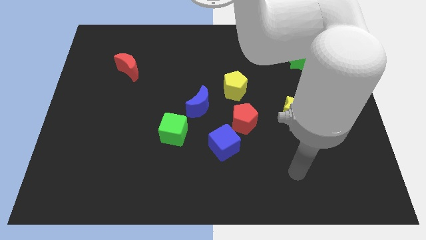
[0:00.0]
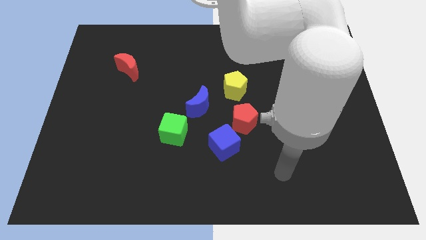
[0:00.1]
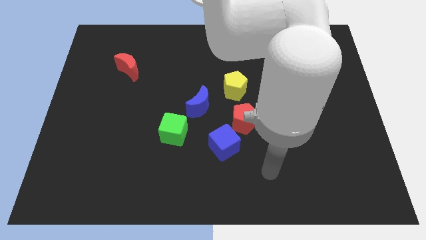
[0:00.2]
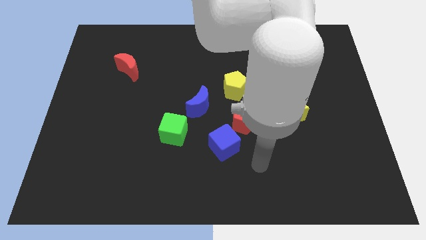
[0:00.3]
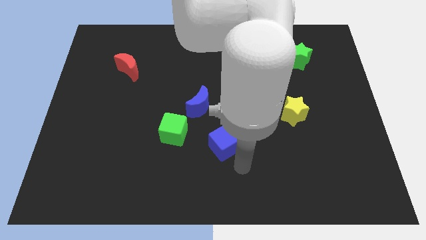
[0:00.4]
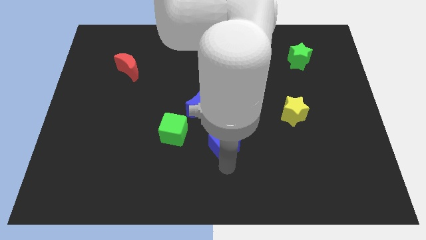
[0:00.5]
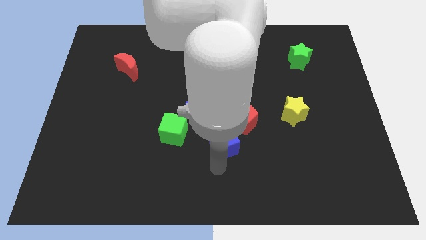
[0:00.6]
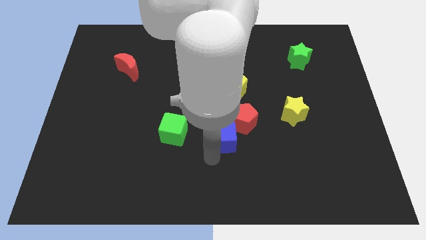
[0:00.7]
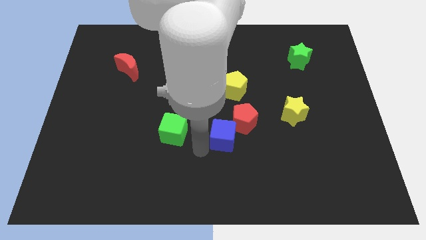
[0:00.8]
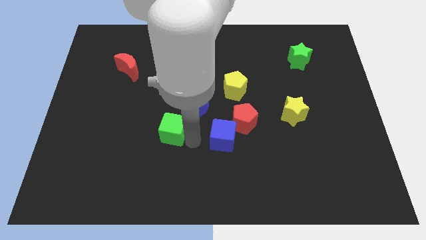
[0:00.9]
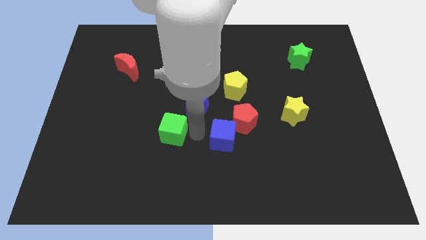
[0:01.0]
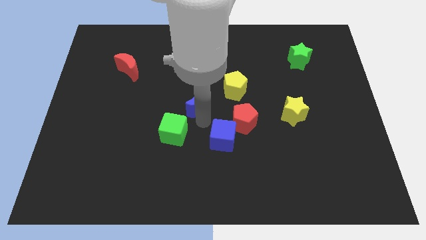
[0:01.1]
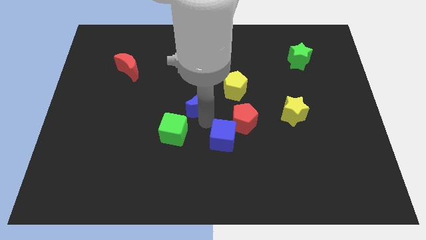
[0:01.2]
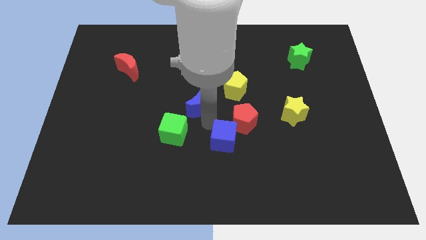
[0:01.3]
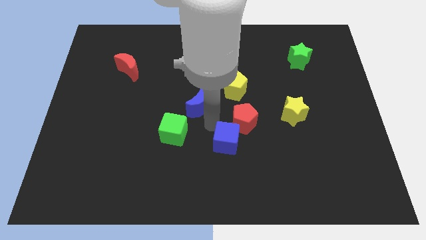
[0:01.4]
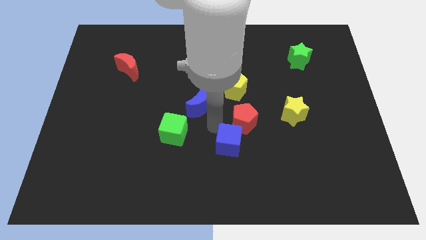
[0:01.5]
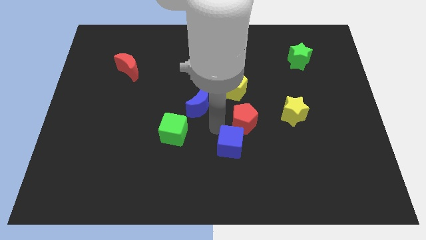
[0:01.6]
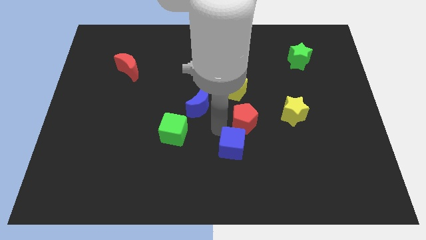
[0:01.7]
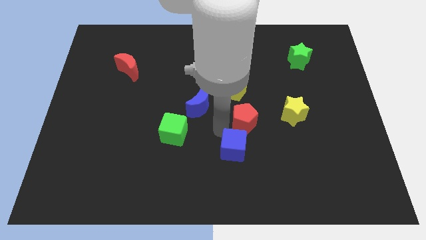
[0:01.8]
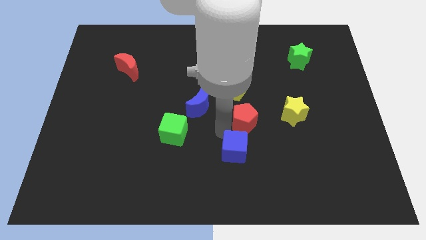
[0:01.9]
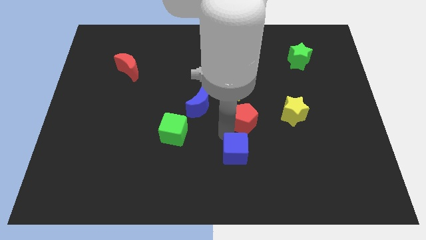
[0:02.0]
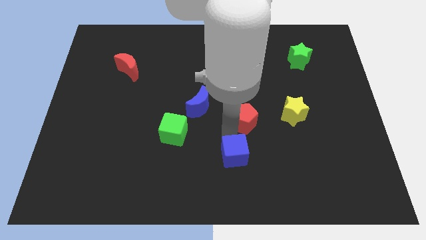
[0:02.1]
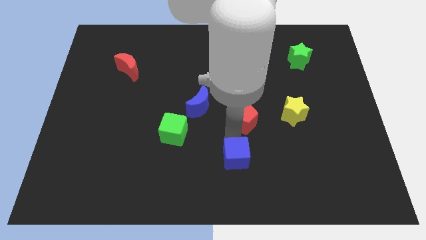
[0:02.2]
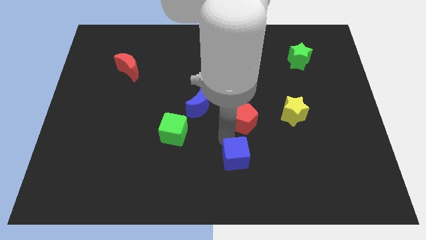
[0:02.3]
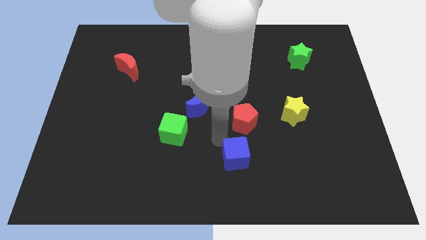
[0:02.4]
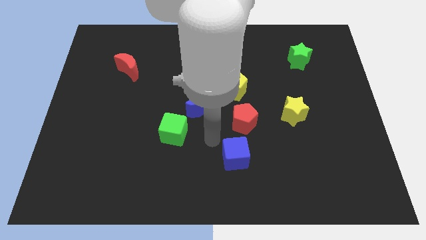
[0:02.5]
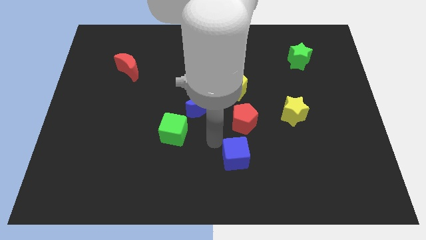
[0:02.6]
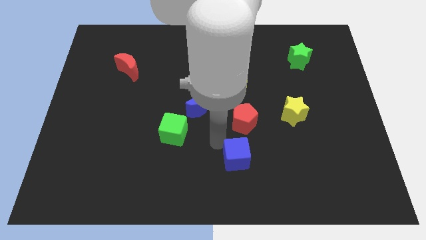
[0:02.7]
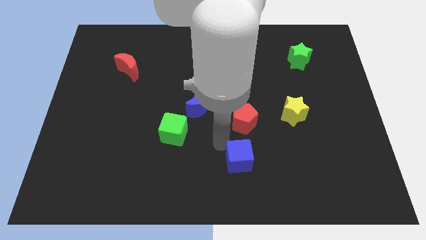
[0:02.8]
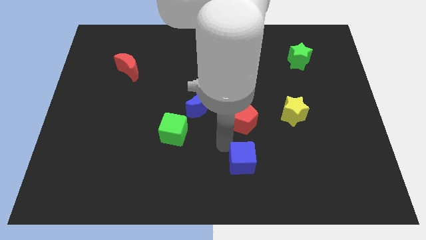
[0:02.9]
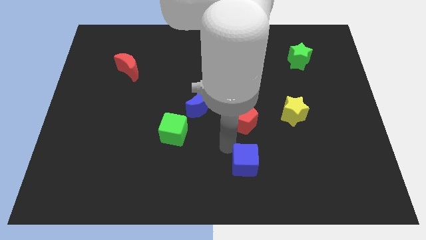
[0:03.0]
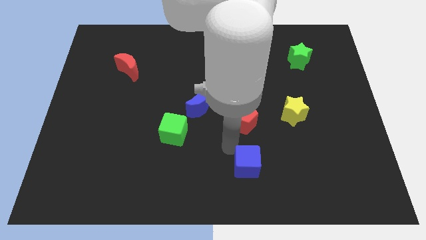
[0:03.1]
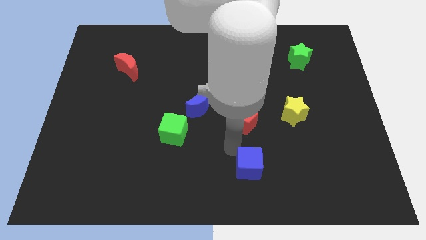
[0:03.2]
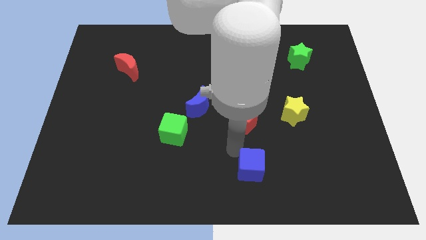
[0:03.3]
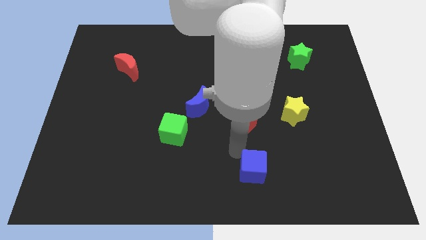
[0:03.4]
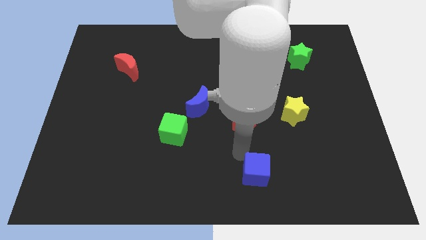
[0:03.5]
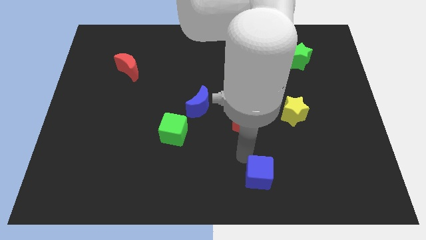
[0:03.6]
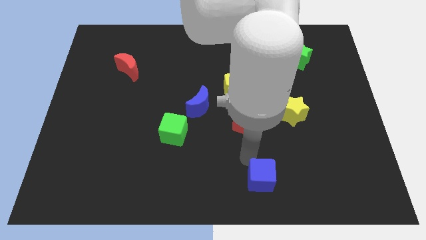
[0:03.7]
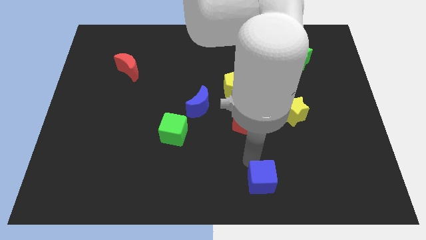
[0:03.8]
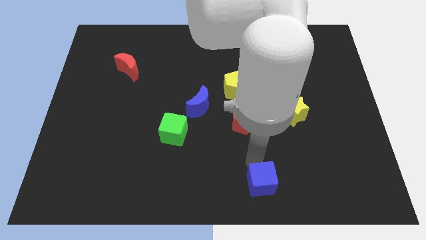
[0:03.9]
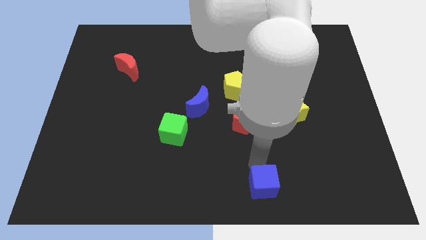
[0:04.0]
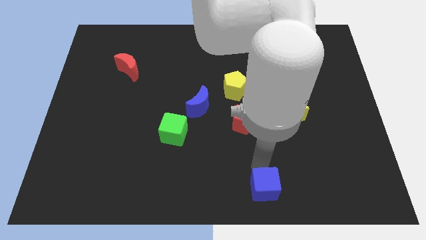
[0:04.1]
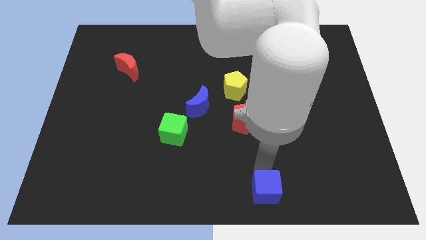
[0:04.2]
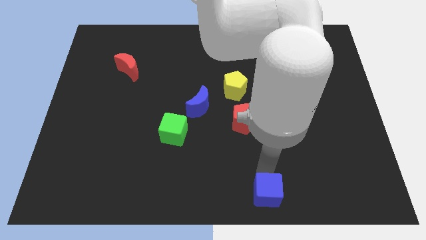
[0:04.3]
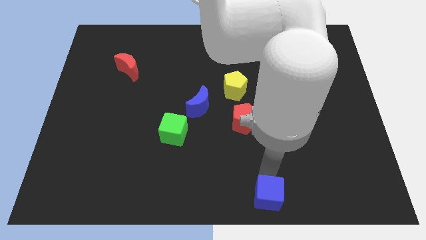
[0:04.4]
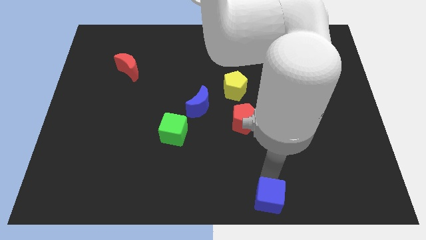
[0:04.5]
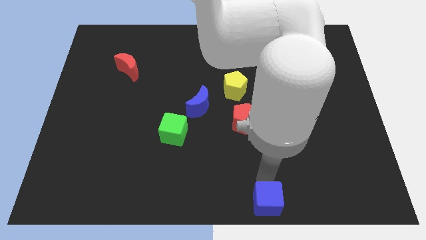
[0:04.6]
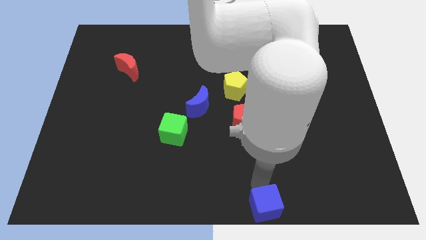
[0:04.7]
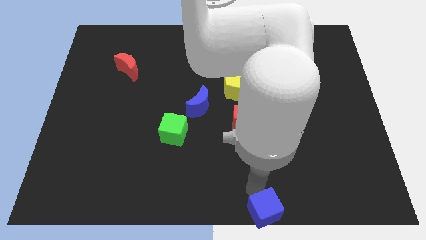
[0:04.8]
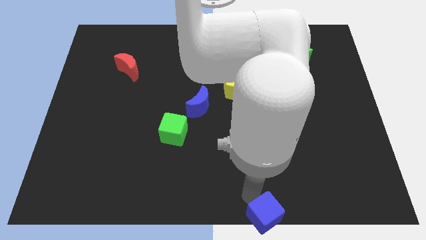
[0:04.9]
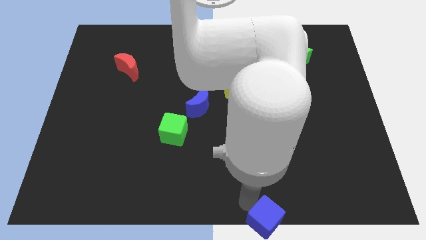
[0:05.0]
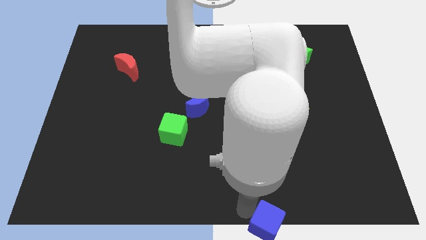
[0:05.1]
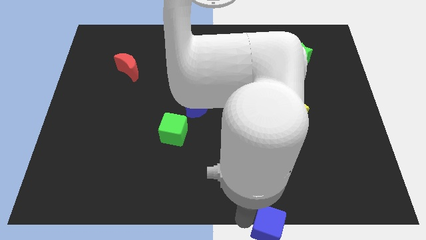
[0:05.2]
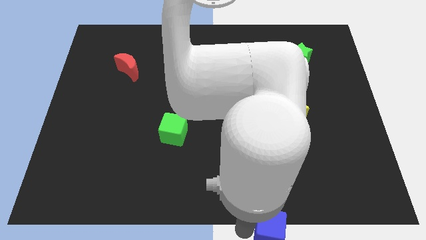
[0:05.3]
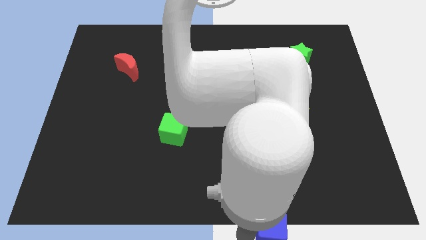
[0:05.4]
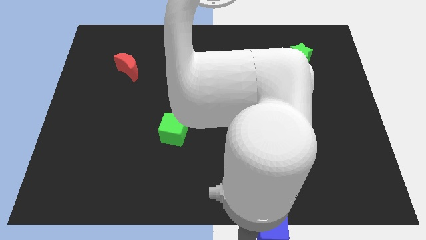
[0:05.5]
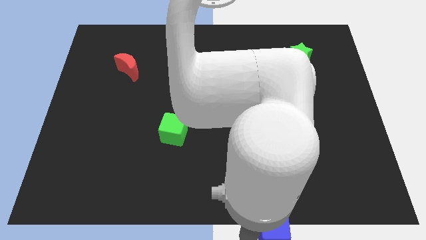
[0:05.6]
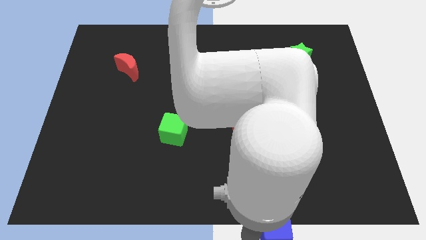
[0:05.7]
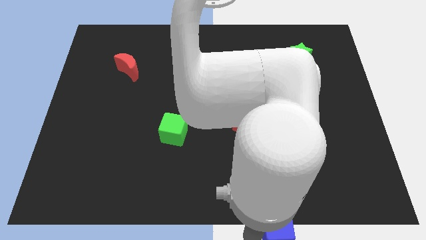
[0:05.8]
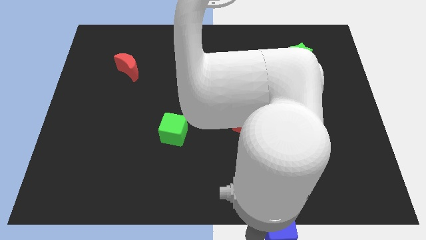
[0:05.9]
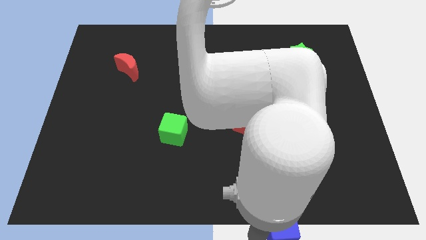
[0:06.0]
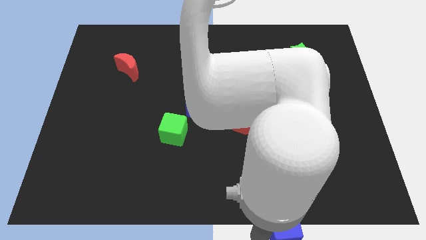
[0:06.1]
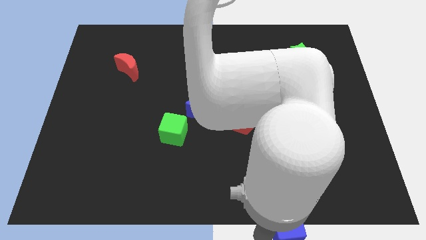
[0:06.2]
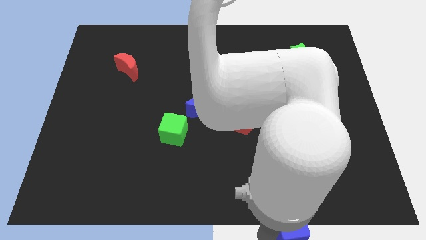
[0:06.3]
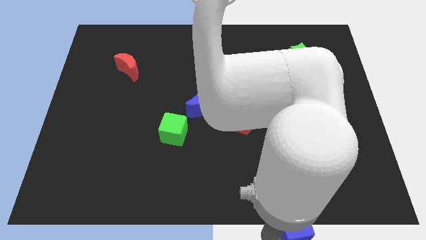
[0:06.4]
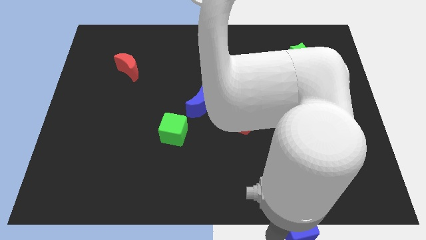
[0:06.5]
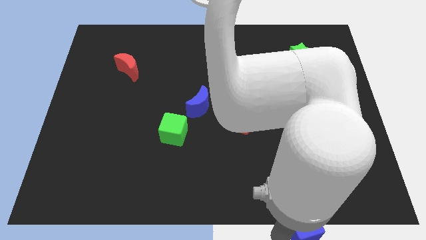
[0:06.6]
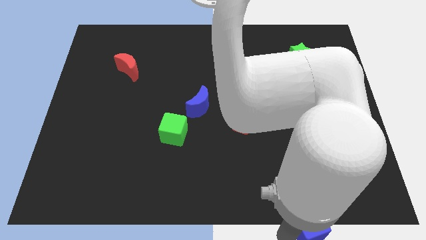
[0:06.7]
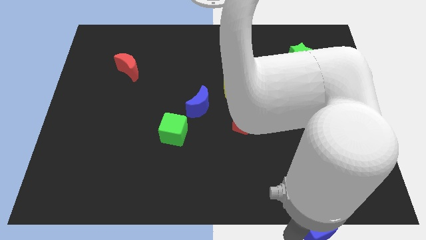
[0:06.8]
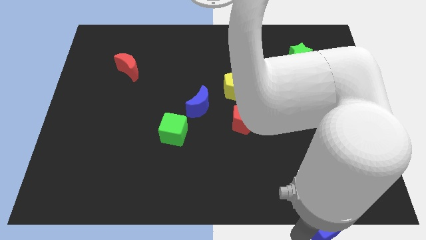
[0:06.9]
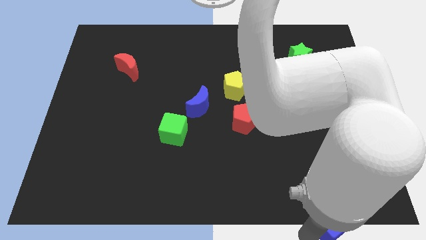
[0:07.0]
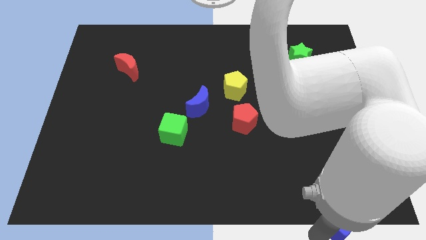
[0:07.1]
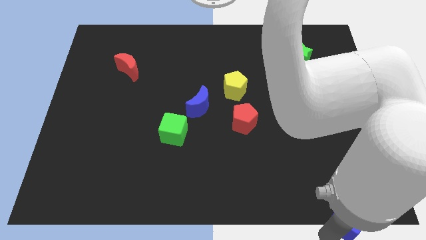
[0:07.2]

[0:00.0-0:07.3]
slide the blue cube to the lower right corner
